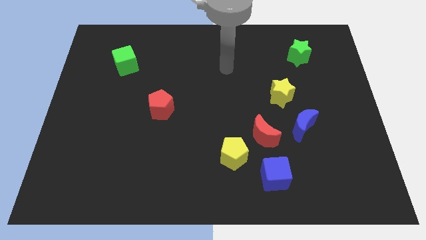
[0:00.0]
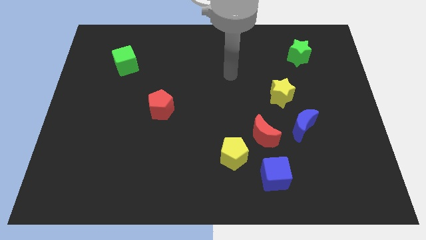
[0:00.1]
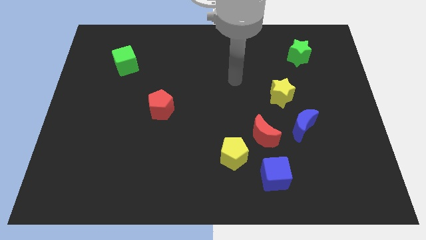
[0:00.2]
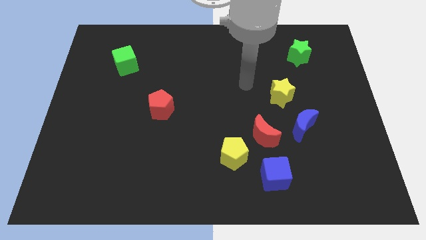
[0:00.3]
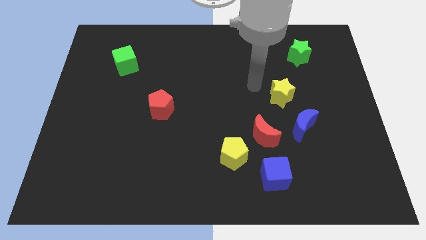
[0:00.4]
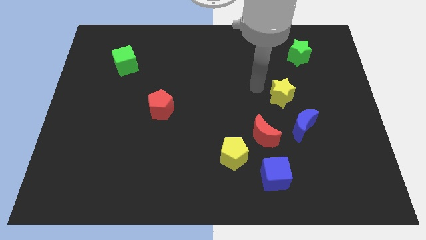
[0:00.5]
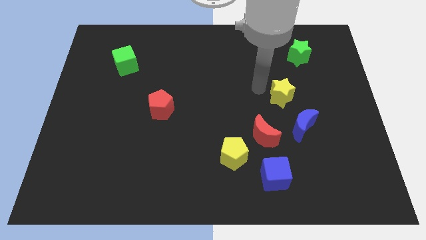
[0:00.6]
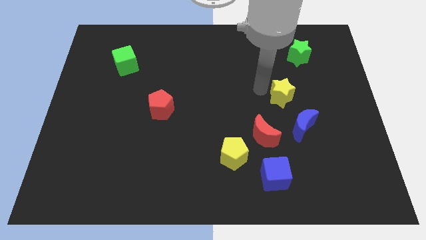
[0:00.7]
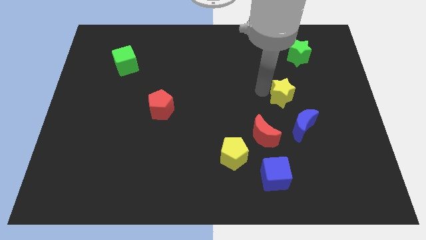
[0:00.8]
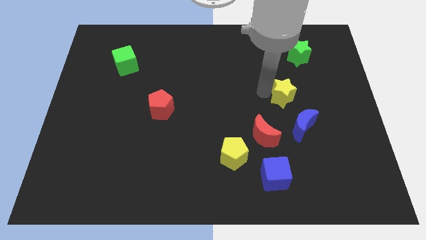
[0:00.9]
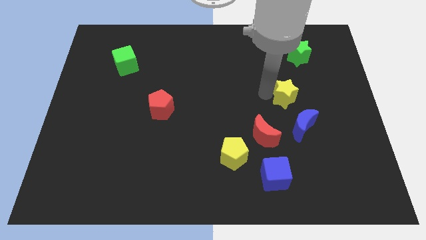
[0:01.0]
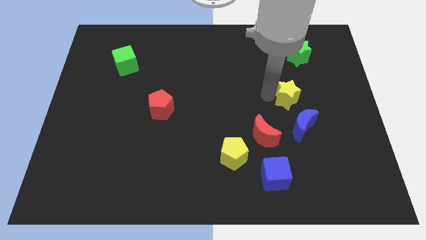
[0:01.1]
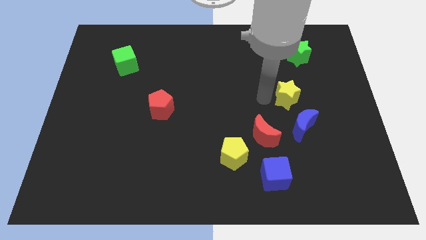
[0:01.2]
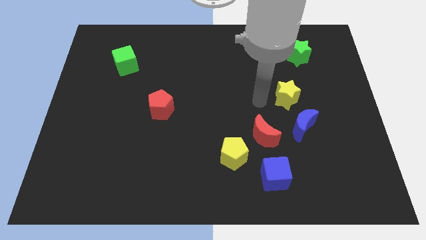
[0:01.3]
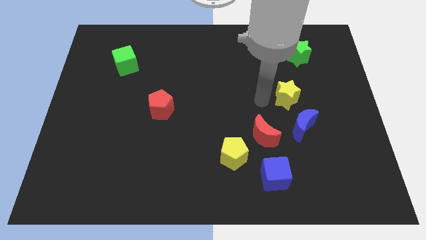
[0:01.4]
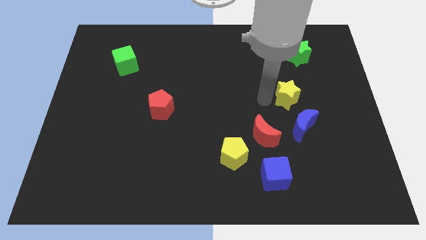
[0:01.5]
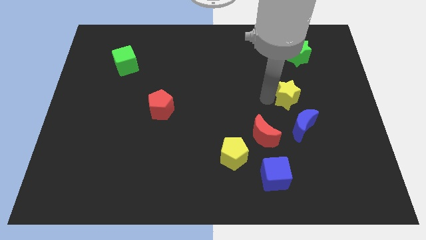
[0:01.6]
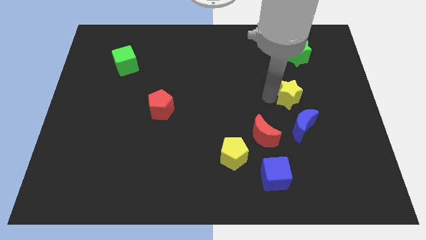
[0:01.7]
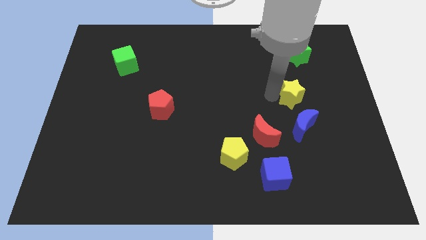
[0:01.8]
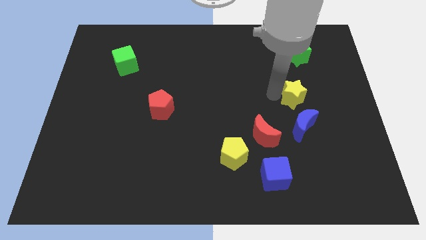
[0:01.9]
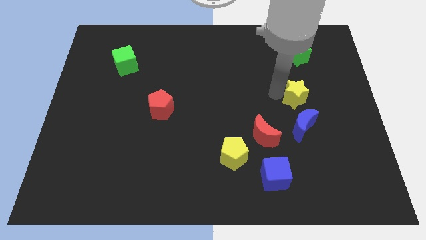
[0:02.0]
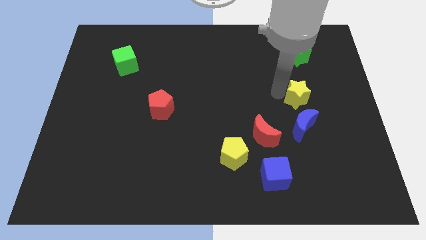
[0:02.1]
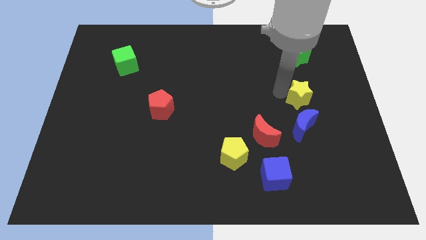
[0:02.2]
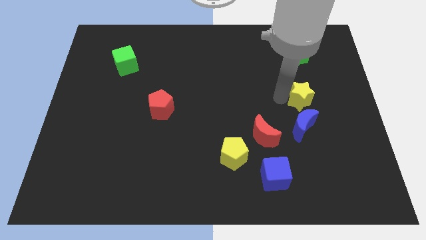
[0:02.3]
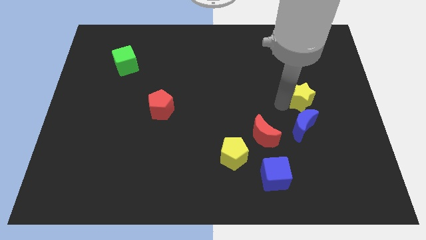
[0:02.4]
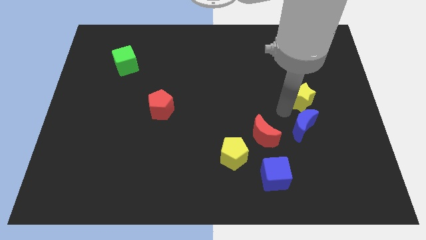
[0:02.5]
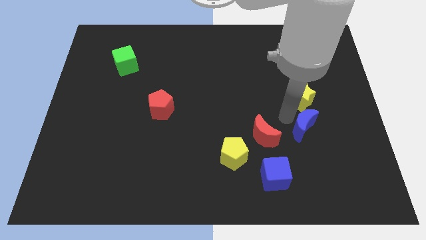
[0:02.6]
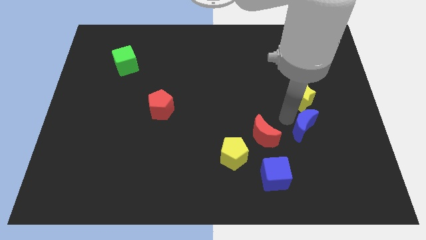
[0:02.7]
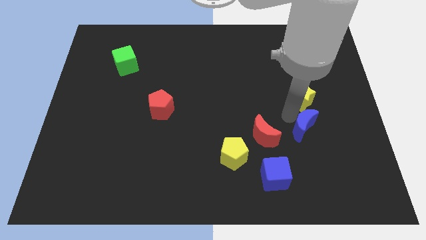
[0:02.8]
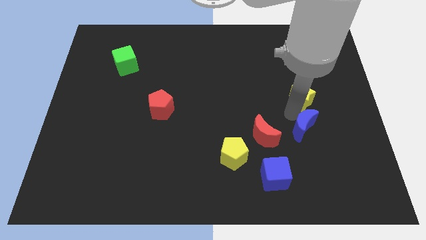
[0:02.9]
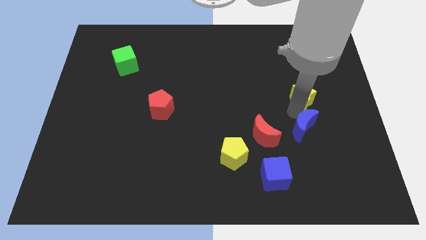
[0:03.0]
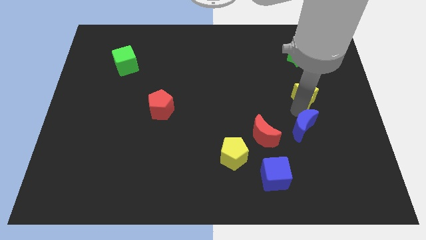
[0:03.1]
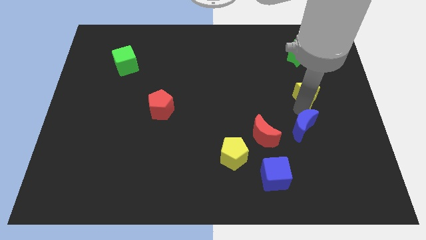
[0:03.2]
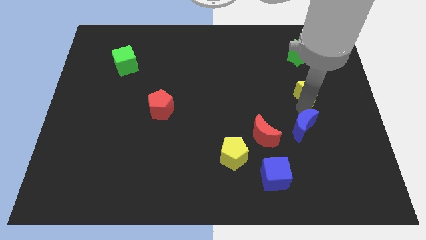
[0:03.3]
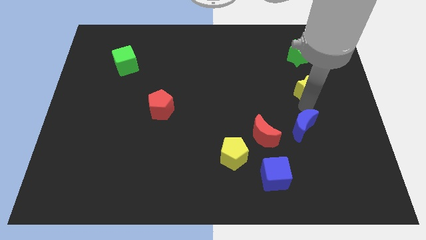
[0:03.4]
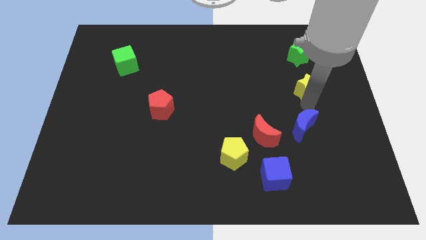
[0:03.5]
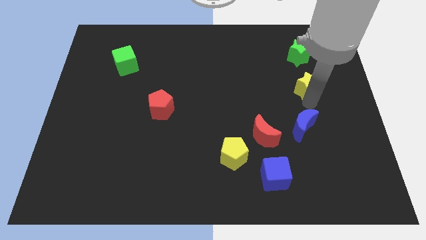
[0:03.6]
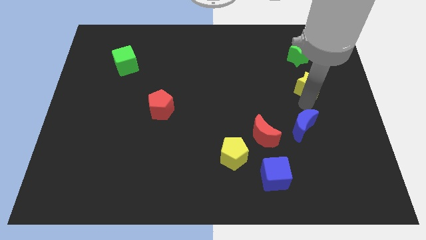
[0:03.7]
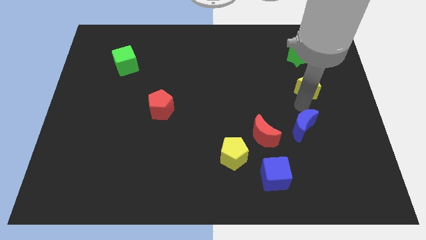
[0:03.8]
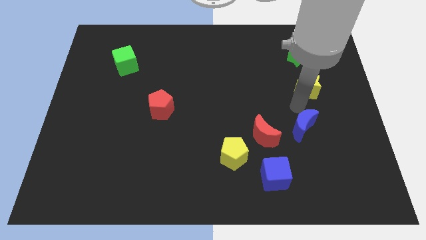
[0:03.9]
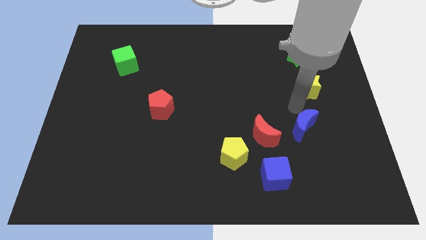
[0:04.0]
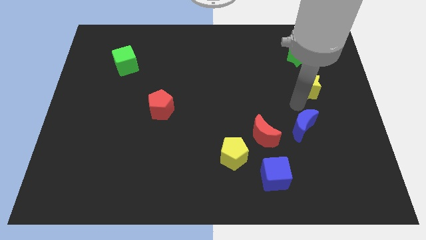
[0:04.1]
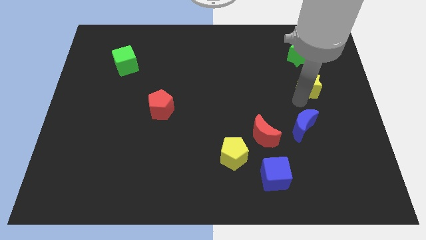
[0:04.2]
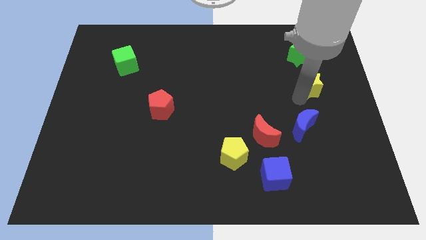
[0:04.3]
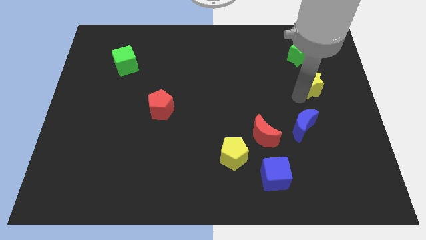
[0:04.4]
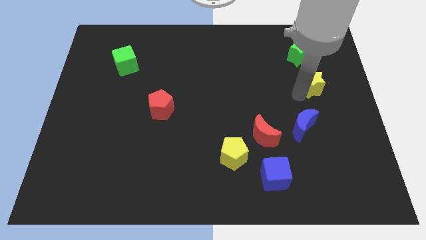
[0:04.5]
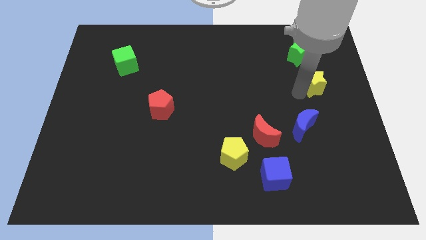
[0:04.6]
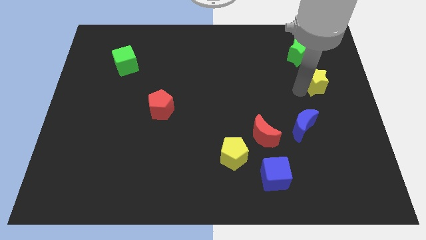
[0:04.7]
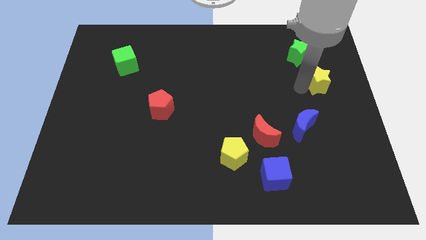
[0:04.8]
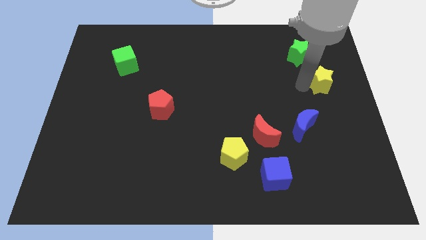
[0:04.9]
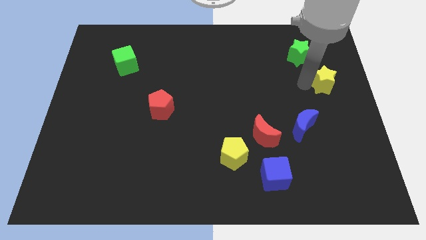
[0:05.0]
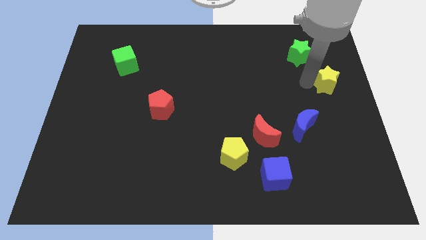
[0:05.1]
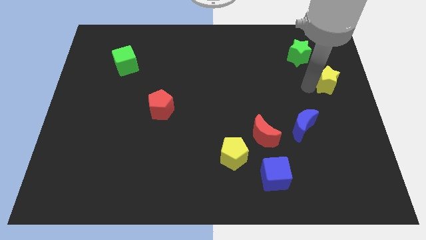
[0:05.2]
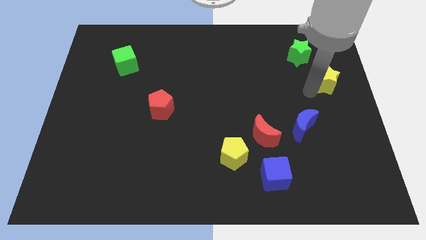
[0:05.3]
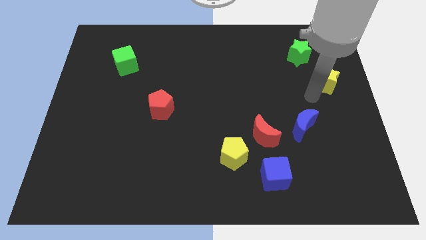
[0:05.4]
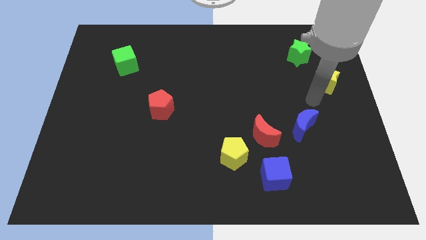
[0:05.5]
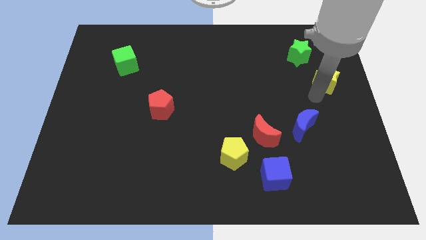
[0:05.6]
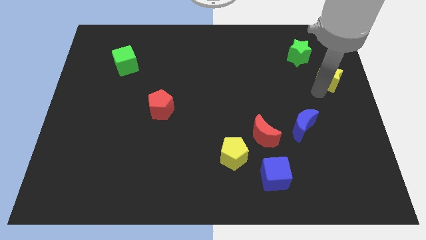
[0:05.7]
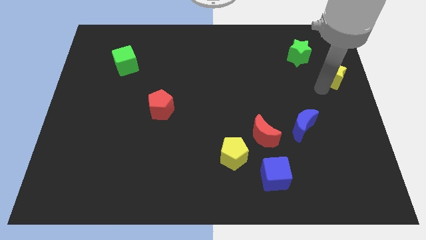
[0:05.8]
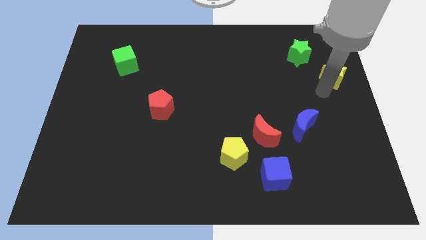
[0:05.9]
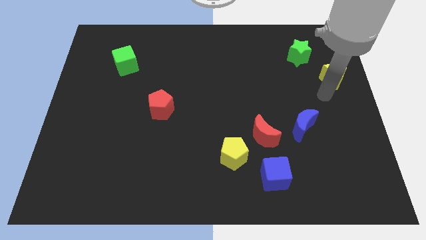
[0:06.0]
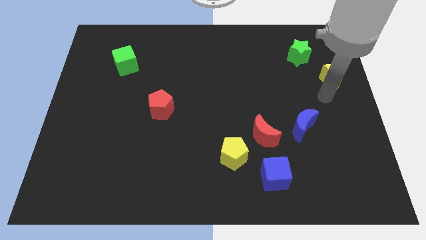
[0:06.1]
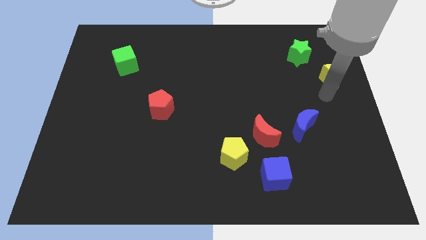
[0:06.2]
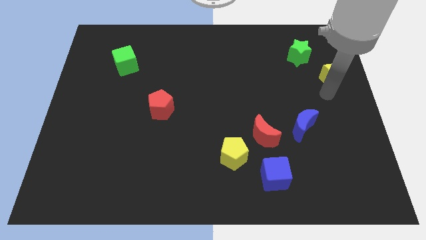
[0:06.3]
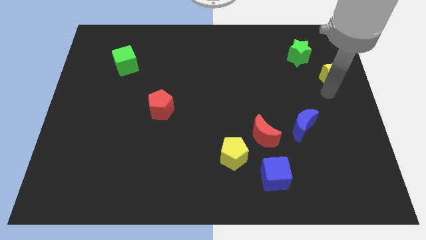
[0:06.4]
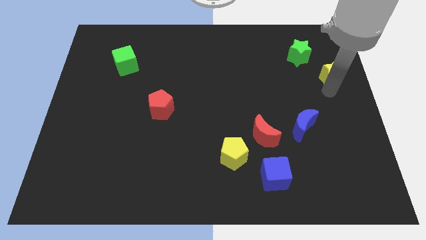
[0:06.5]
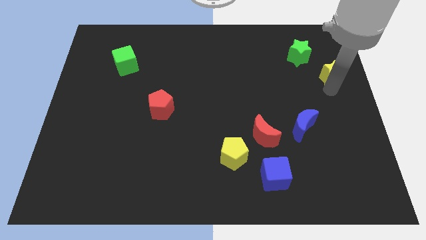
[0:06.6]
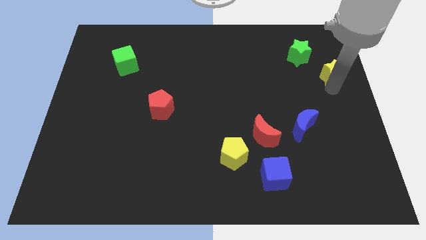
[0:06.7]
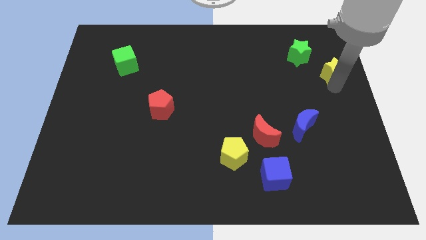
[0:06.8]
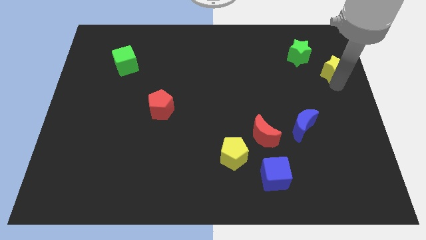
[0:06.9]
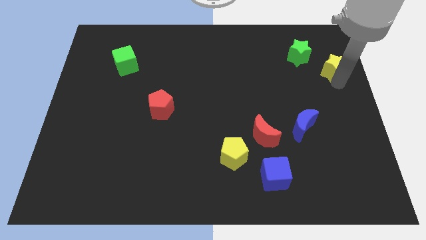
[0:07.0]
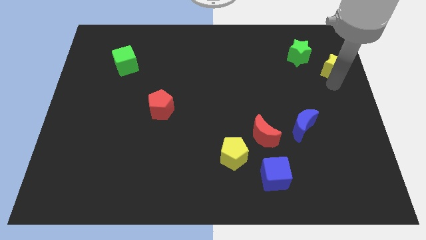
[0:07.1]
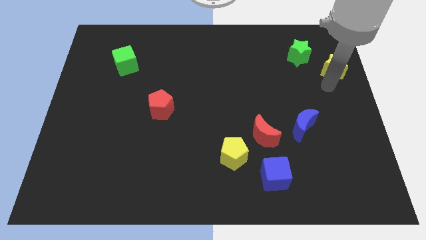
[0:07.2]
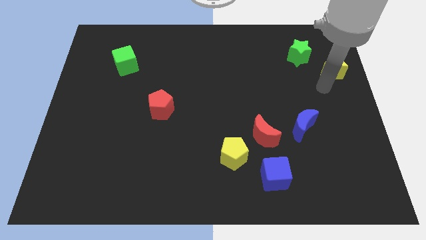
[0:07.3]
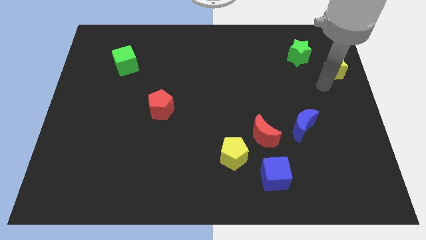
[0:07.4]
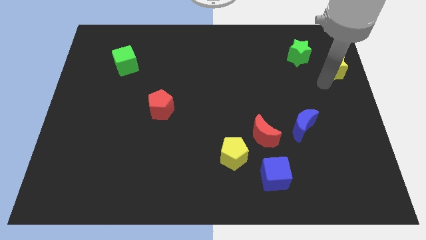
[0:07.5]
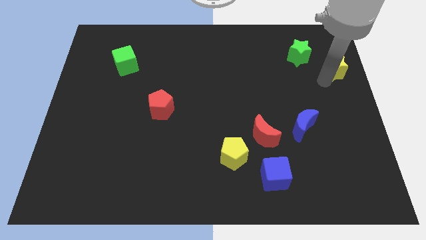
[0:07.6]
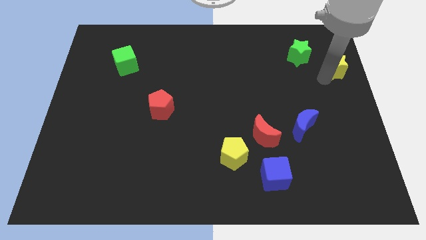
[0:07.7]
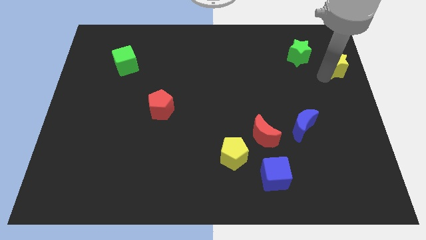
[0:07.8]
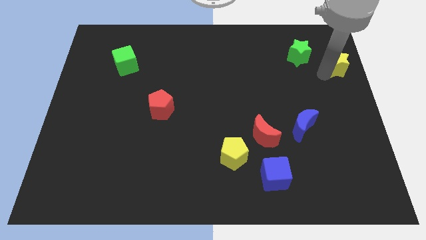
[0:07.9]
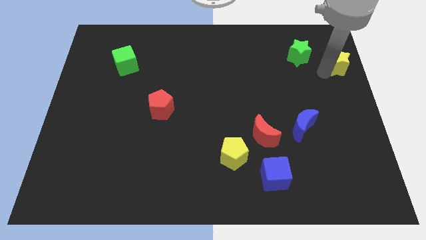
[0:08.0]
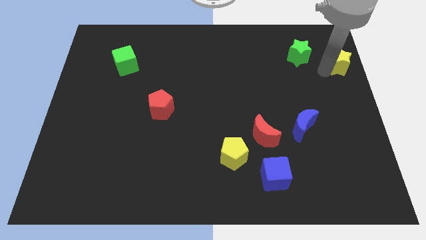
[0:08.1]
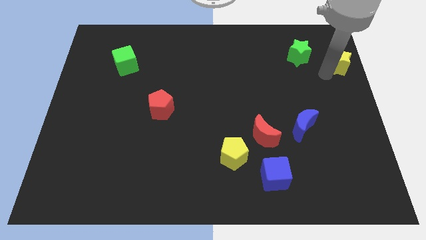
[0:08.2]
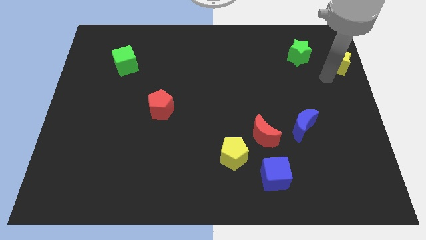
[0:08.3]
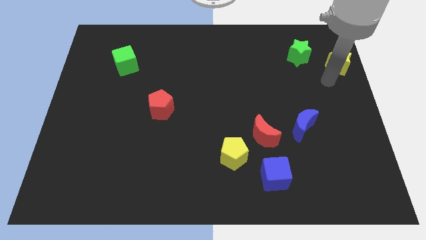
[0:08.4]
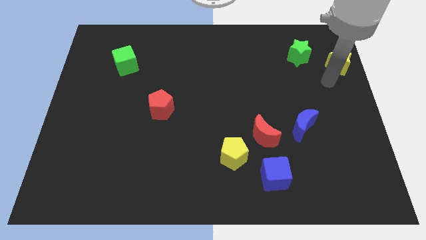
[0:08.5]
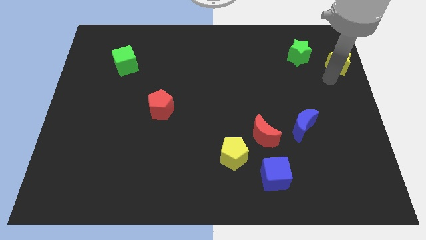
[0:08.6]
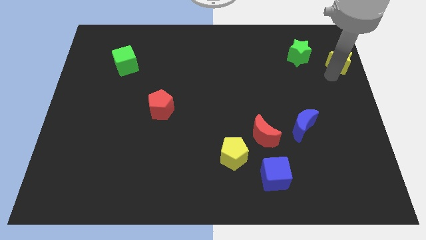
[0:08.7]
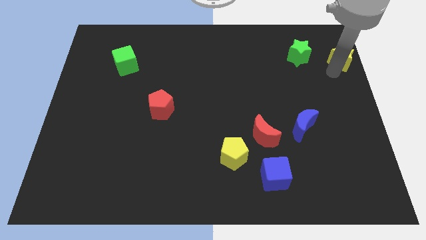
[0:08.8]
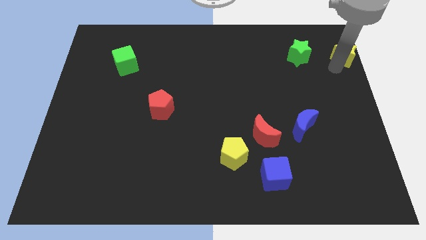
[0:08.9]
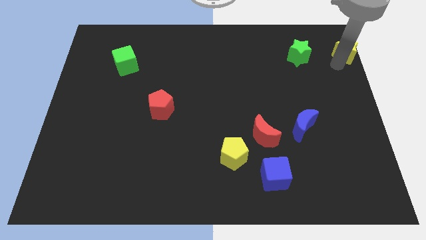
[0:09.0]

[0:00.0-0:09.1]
move the yellow star to the upper right corner
